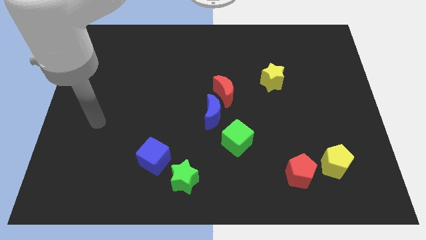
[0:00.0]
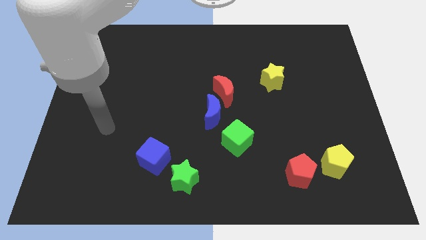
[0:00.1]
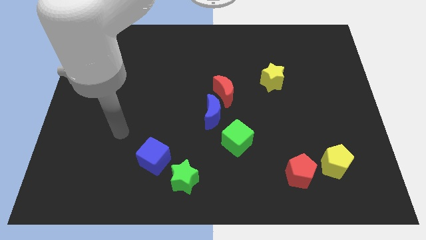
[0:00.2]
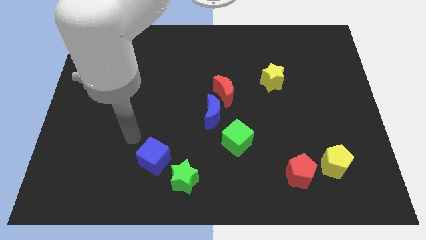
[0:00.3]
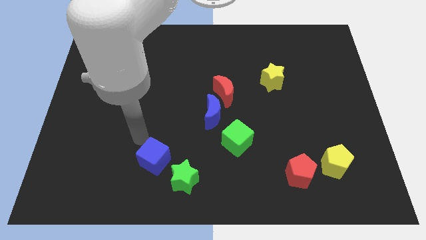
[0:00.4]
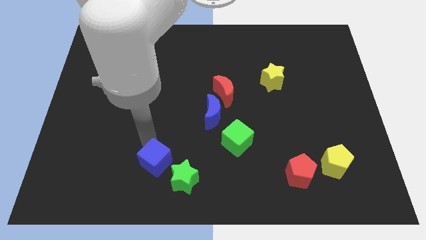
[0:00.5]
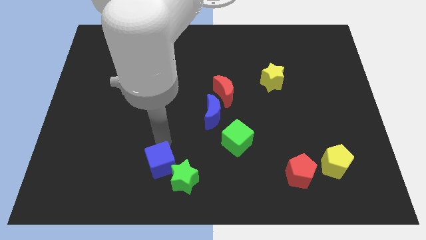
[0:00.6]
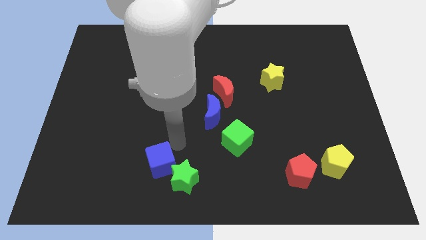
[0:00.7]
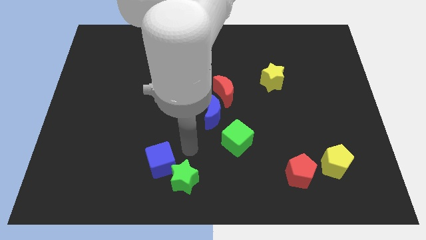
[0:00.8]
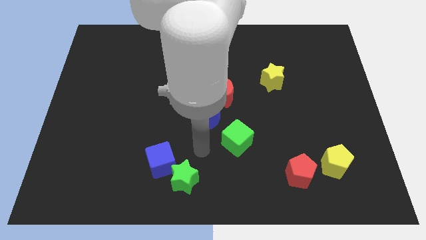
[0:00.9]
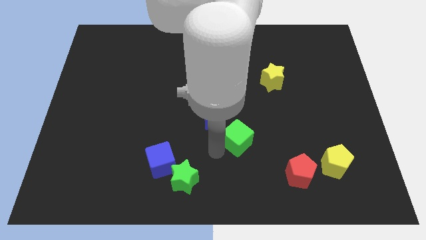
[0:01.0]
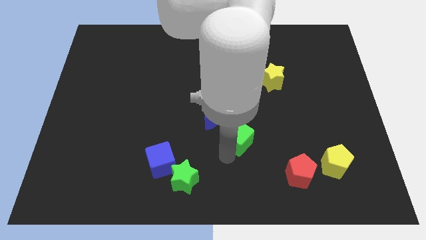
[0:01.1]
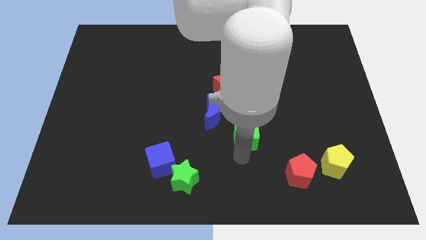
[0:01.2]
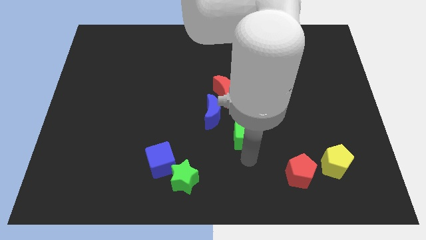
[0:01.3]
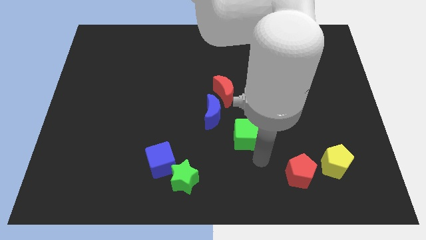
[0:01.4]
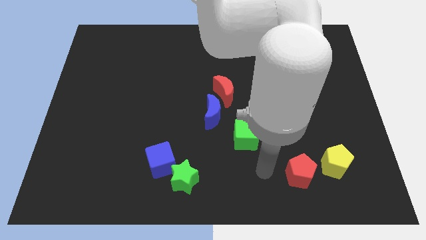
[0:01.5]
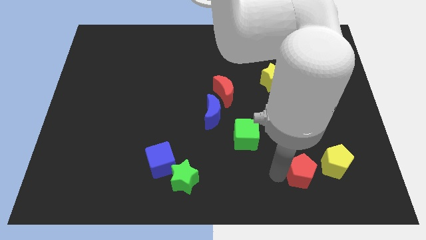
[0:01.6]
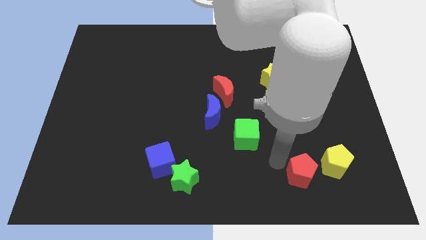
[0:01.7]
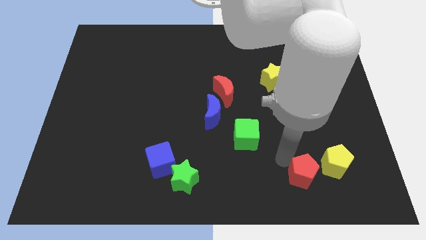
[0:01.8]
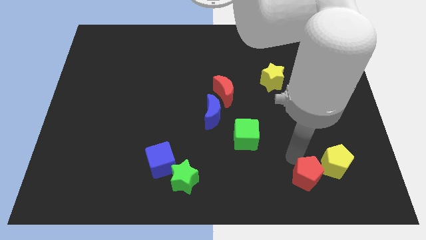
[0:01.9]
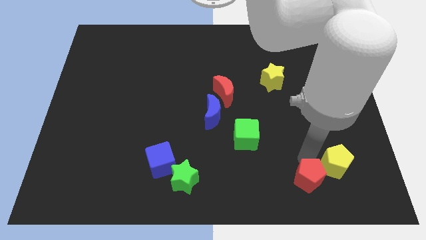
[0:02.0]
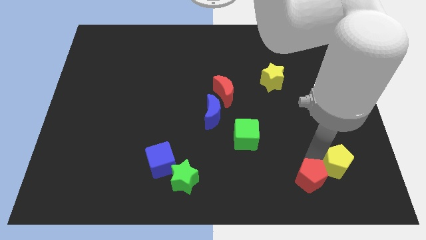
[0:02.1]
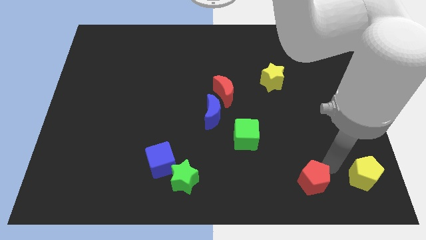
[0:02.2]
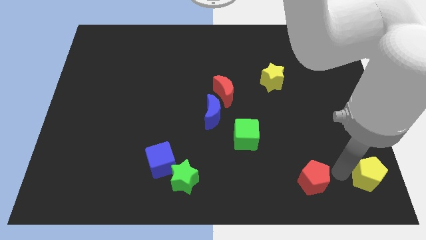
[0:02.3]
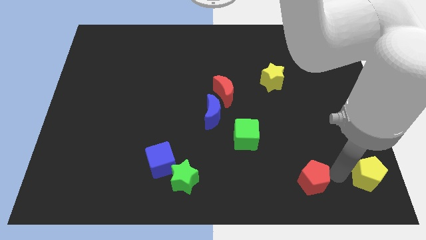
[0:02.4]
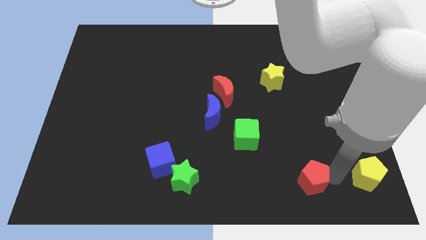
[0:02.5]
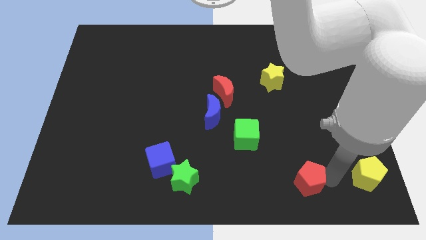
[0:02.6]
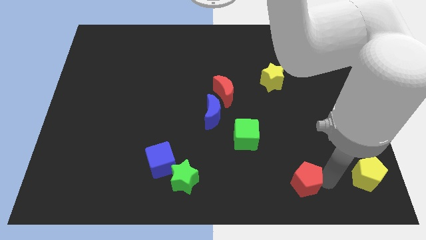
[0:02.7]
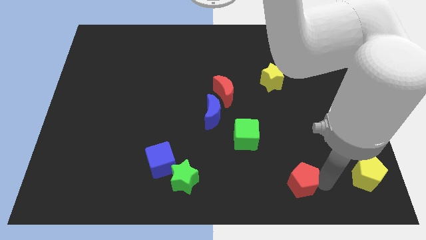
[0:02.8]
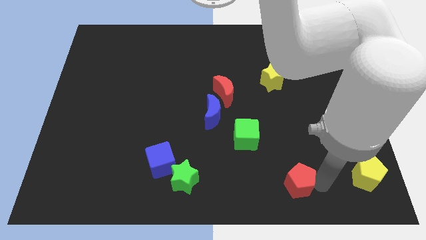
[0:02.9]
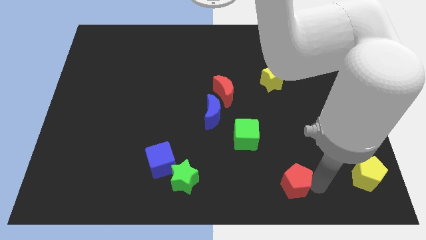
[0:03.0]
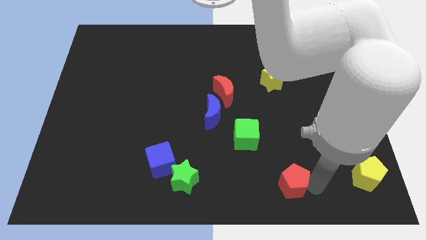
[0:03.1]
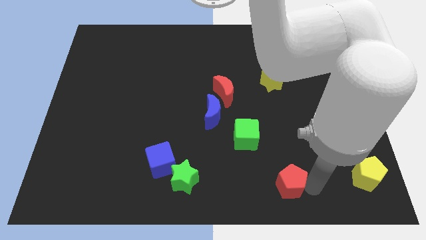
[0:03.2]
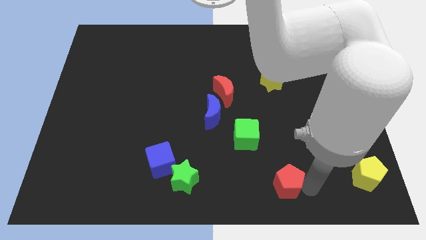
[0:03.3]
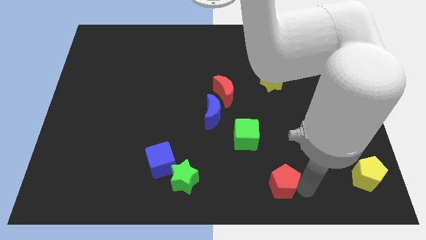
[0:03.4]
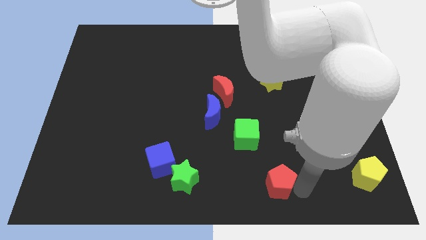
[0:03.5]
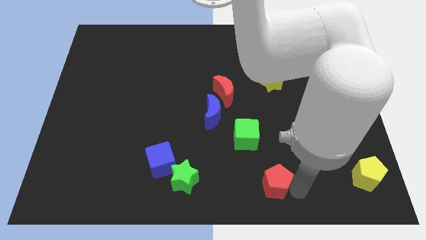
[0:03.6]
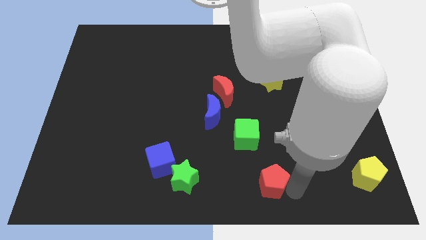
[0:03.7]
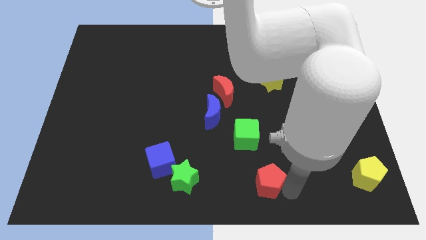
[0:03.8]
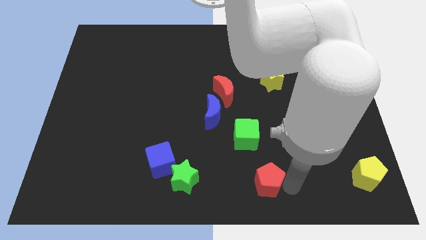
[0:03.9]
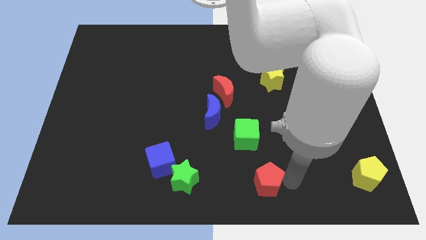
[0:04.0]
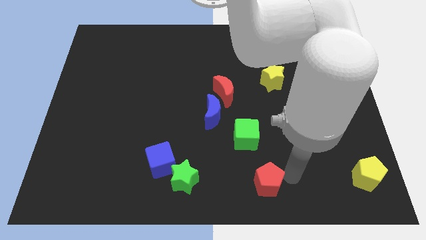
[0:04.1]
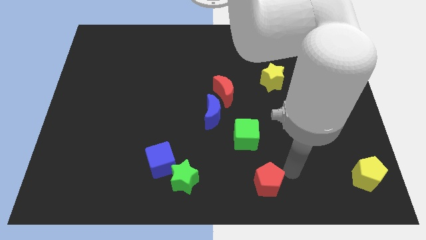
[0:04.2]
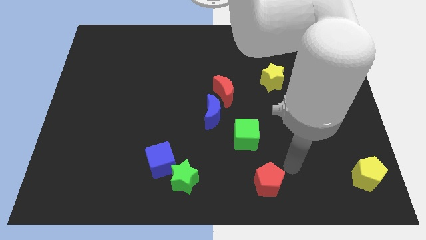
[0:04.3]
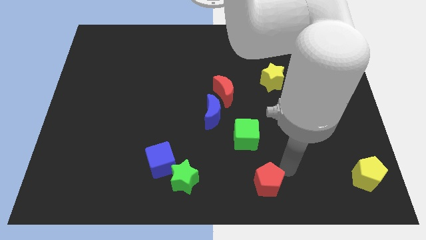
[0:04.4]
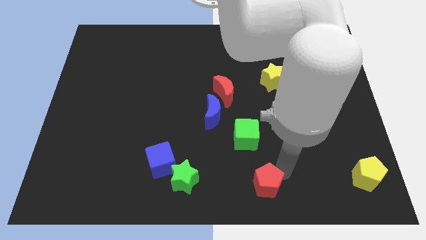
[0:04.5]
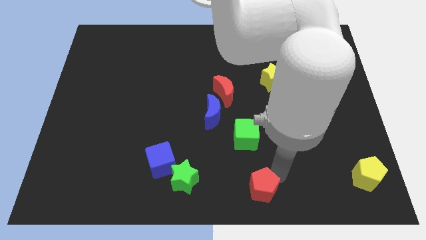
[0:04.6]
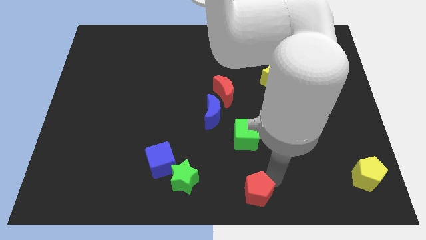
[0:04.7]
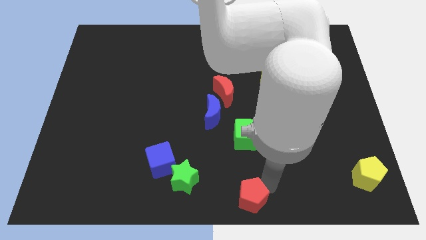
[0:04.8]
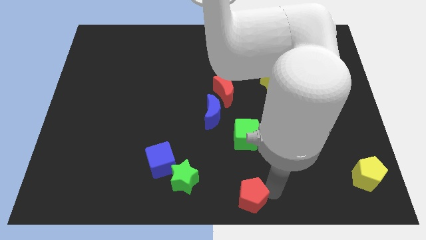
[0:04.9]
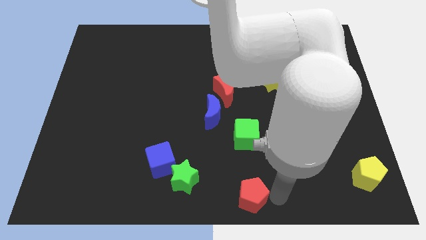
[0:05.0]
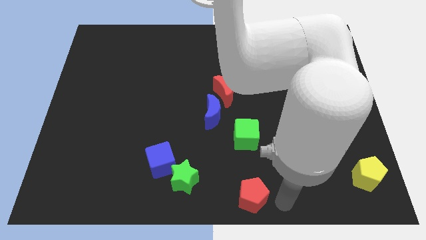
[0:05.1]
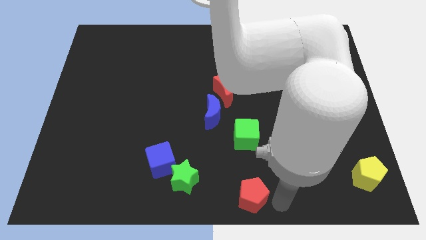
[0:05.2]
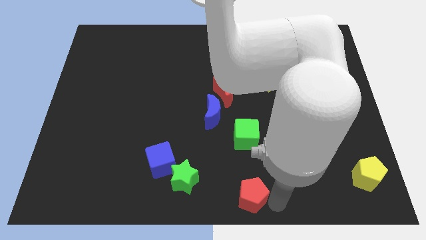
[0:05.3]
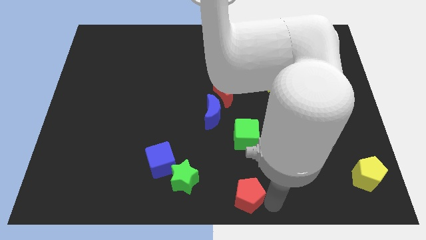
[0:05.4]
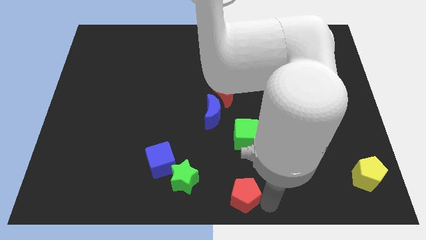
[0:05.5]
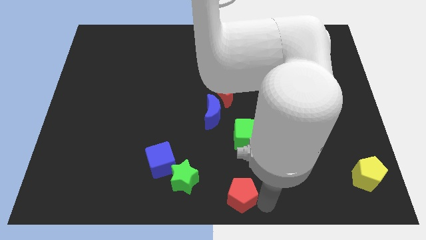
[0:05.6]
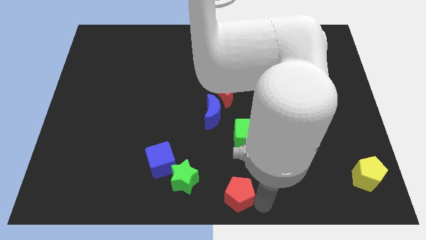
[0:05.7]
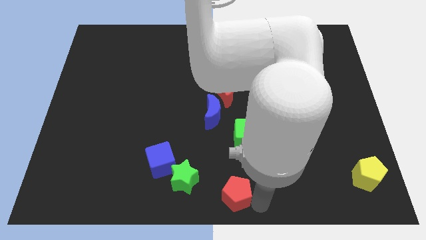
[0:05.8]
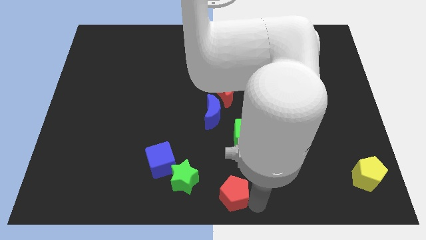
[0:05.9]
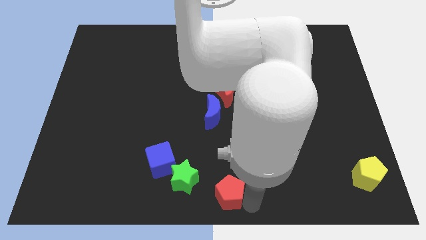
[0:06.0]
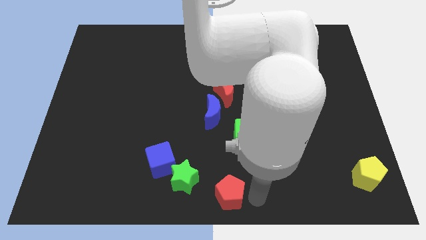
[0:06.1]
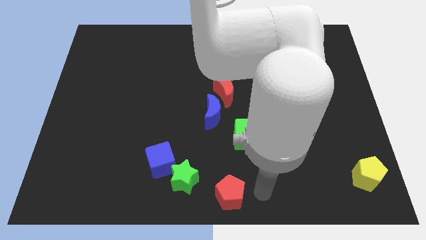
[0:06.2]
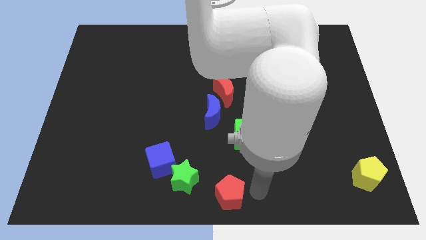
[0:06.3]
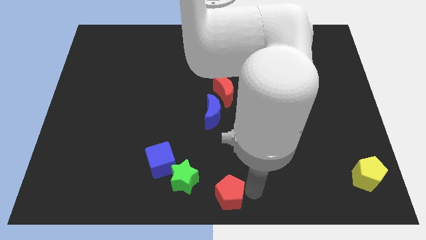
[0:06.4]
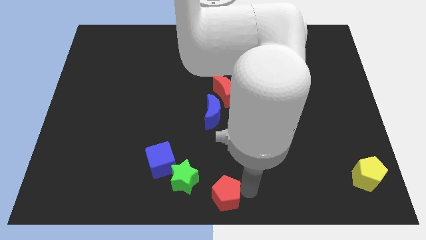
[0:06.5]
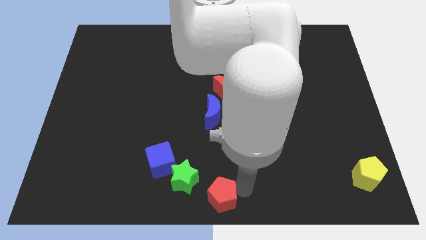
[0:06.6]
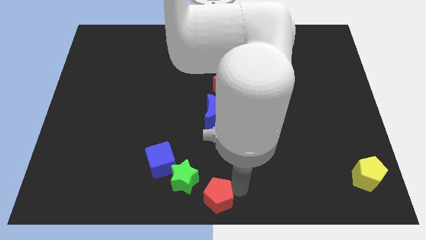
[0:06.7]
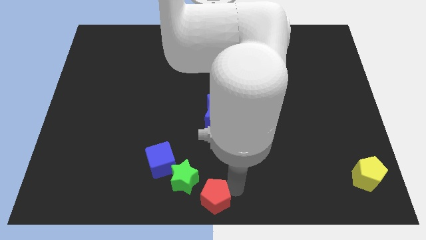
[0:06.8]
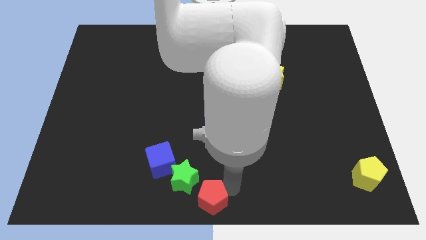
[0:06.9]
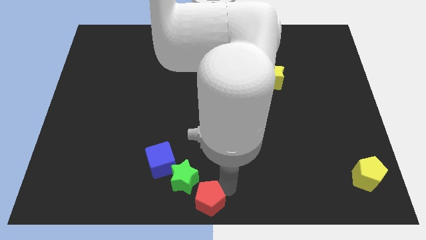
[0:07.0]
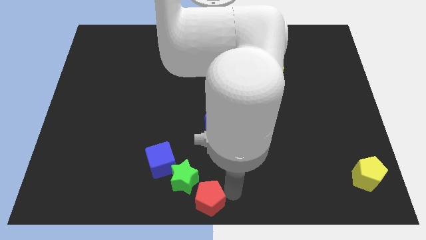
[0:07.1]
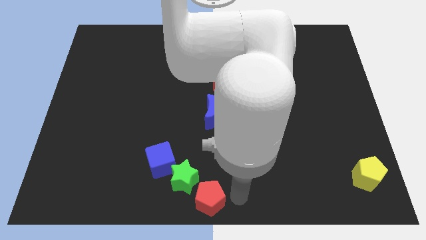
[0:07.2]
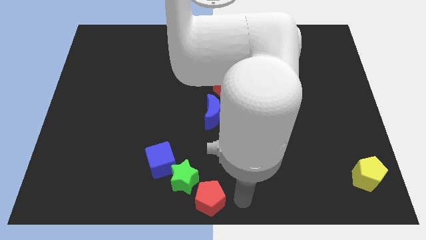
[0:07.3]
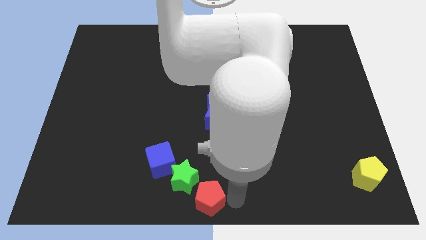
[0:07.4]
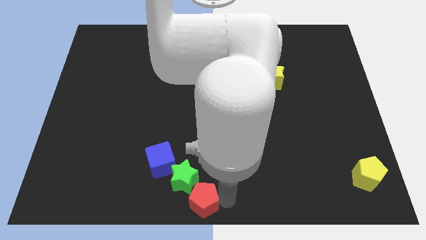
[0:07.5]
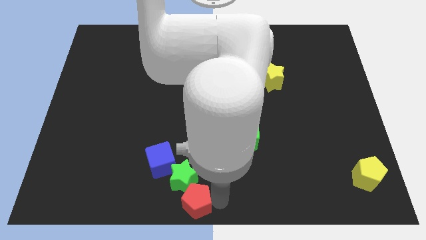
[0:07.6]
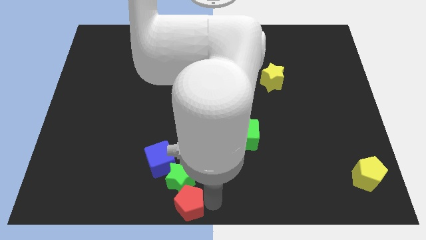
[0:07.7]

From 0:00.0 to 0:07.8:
slide the red pentagon to the left

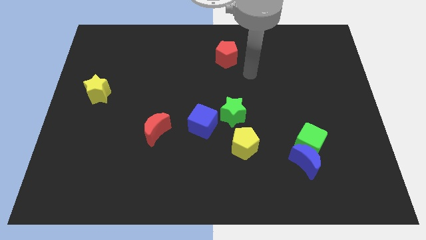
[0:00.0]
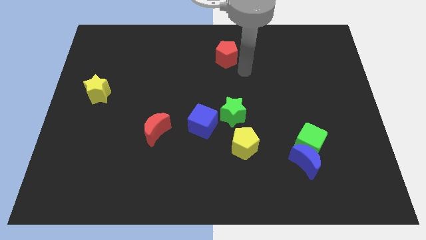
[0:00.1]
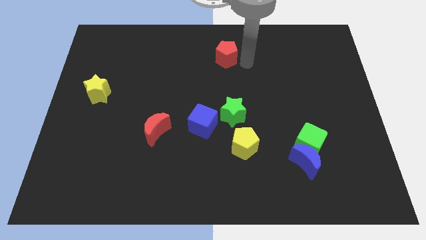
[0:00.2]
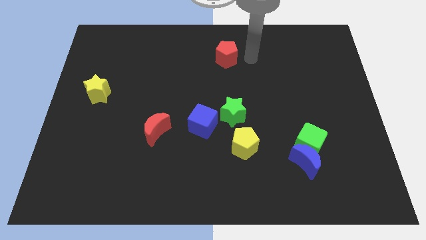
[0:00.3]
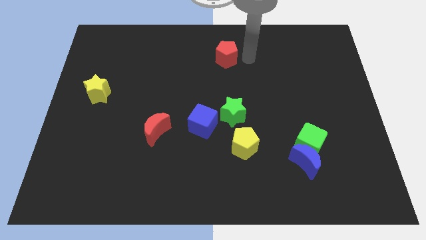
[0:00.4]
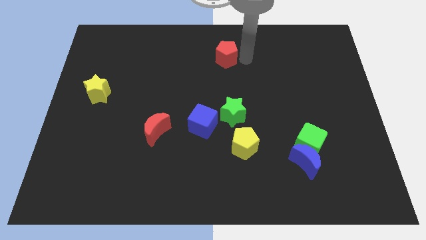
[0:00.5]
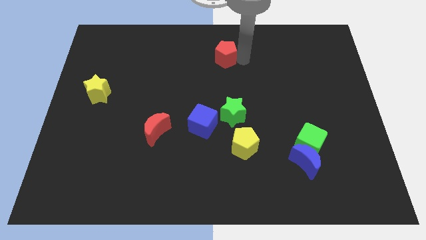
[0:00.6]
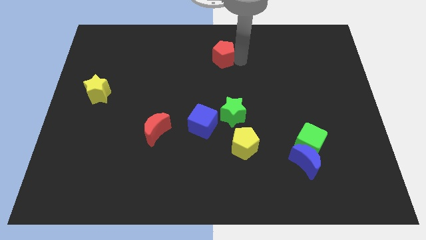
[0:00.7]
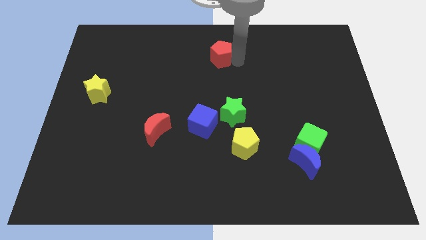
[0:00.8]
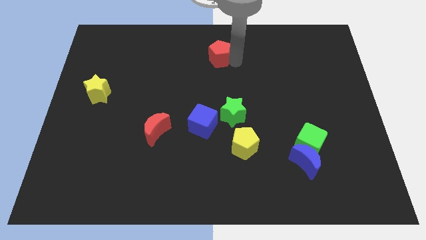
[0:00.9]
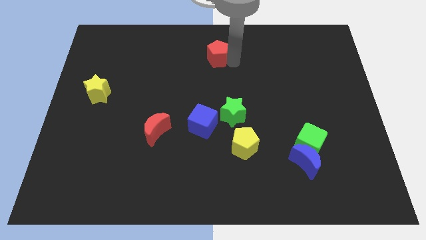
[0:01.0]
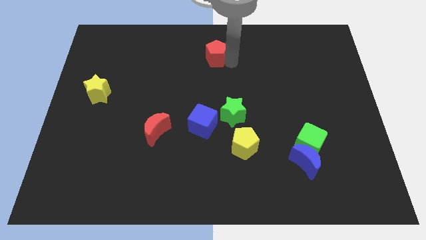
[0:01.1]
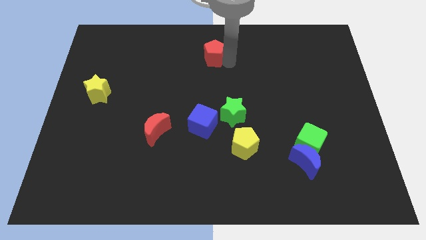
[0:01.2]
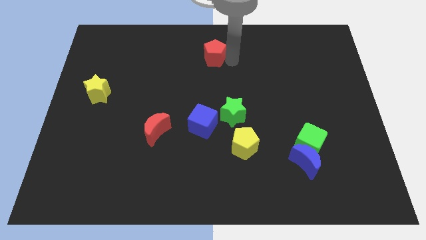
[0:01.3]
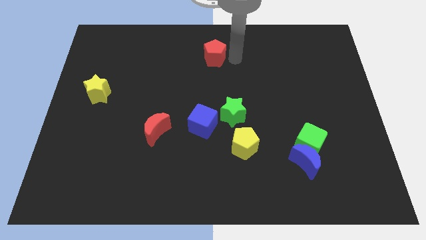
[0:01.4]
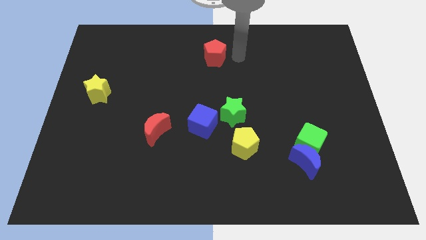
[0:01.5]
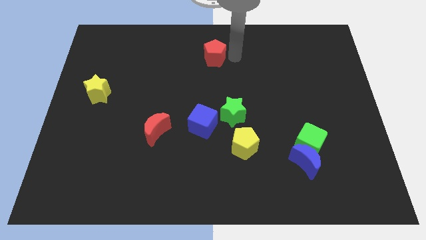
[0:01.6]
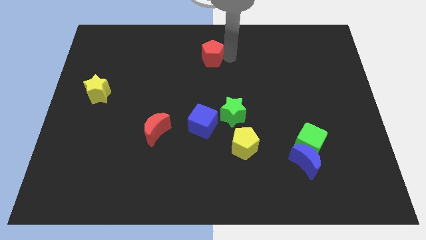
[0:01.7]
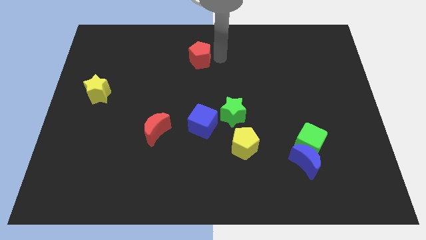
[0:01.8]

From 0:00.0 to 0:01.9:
slide the red pentagon a little to the left
